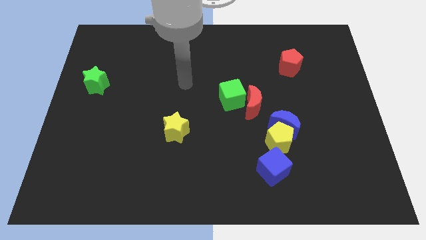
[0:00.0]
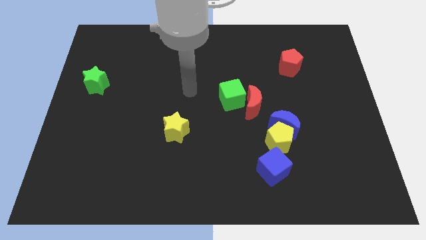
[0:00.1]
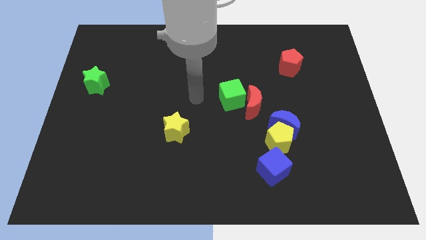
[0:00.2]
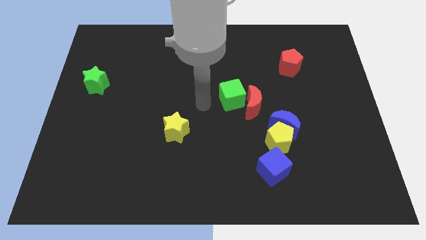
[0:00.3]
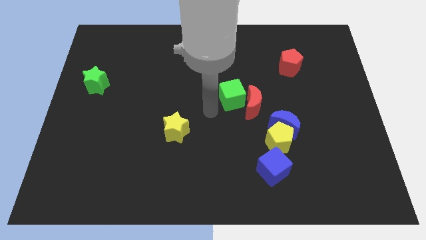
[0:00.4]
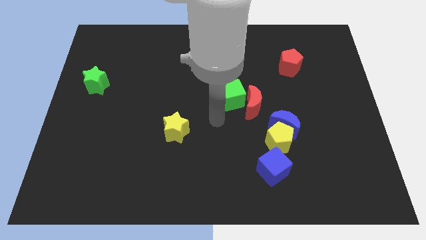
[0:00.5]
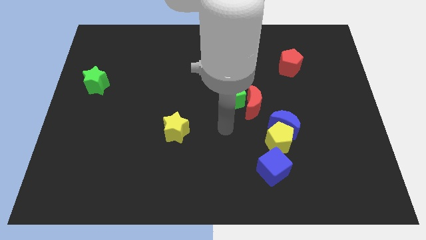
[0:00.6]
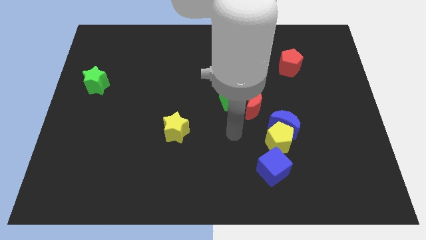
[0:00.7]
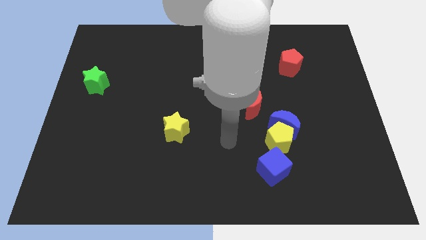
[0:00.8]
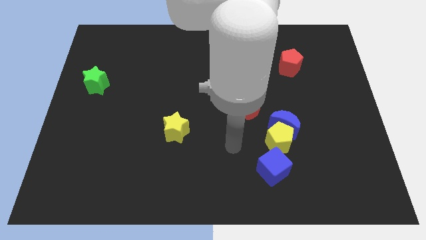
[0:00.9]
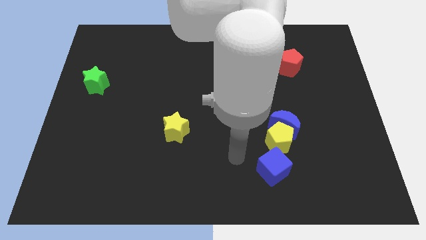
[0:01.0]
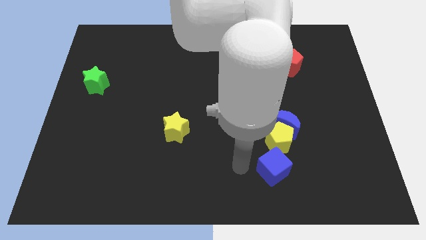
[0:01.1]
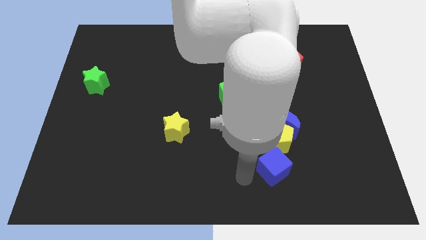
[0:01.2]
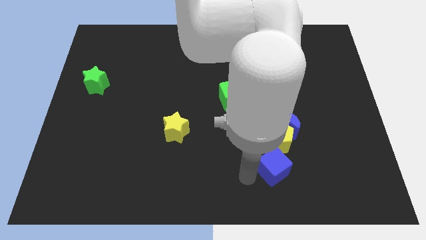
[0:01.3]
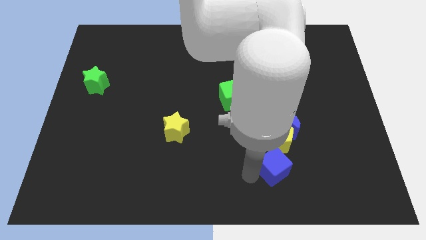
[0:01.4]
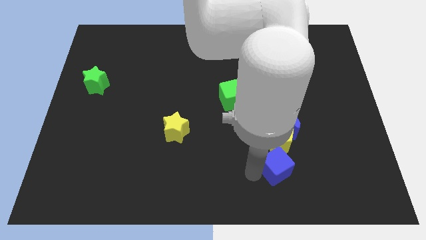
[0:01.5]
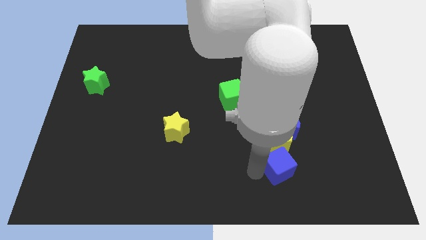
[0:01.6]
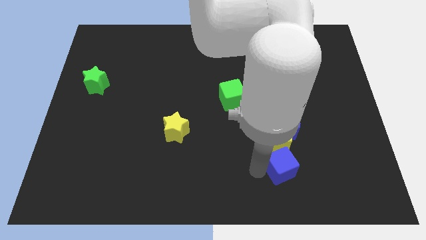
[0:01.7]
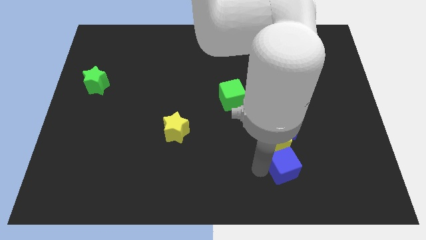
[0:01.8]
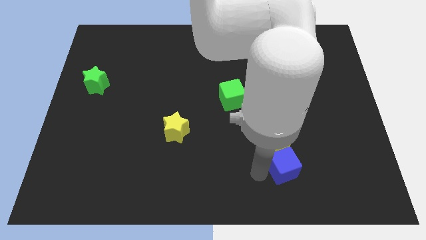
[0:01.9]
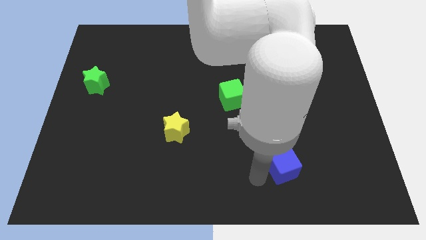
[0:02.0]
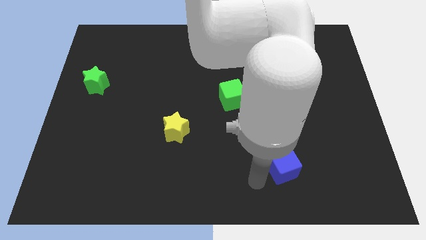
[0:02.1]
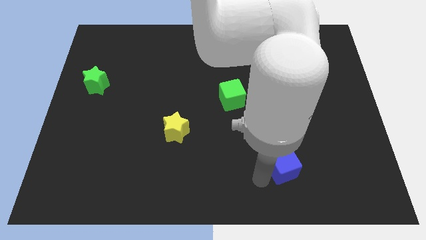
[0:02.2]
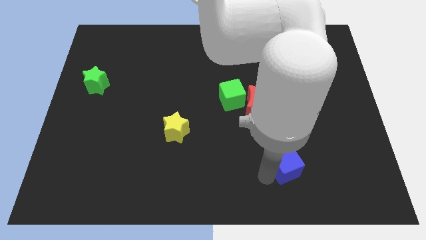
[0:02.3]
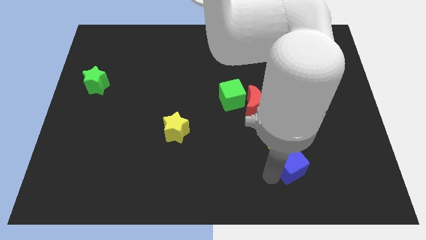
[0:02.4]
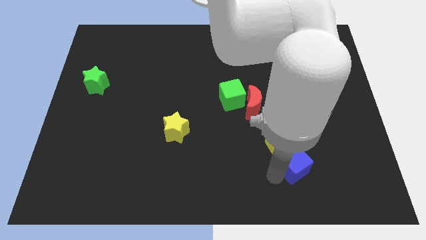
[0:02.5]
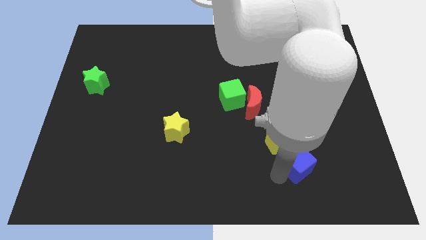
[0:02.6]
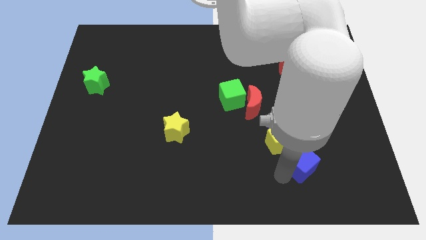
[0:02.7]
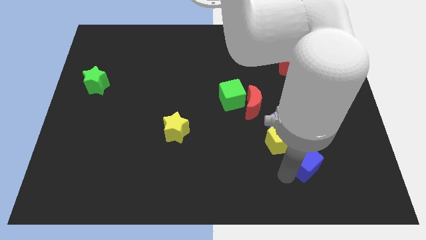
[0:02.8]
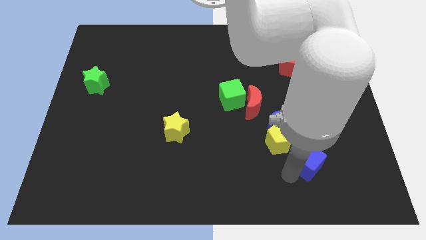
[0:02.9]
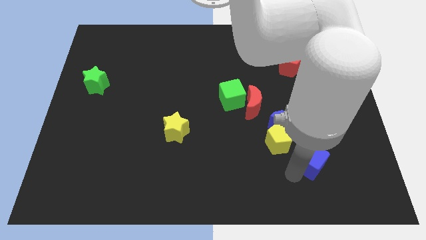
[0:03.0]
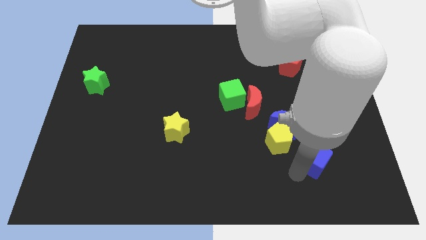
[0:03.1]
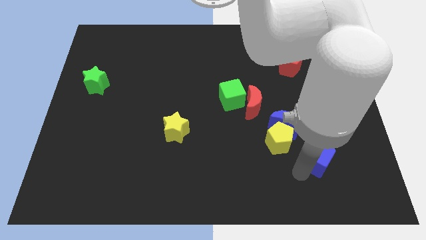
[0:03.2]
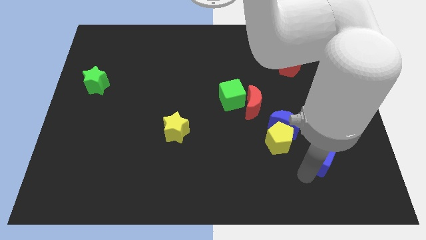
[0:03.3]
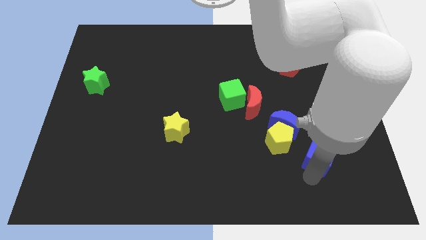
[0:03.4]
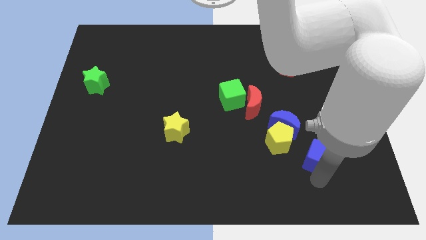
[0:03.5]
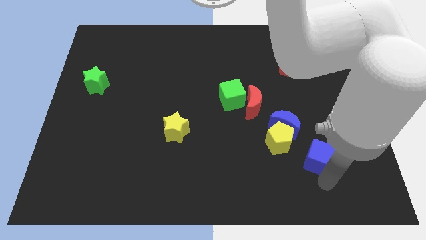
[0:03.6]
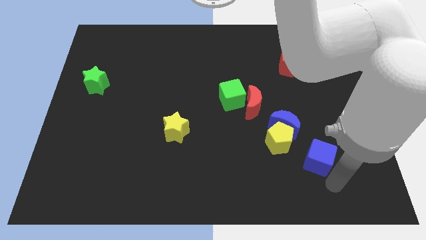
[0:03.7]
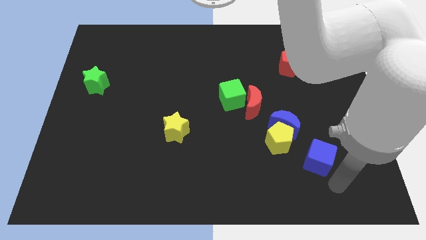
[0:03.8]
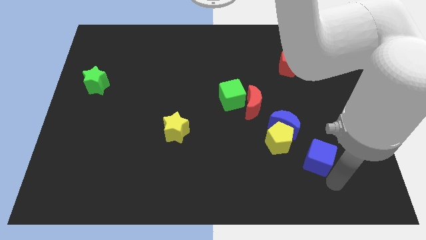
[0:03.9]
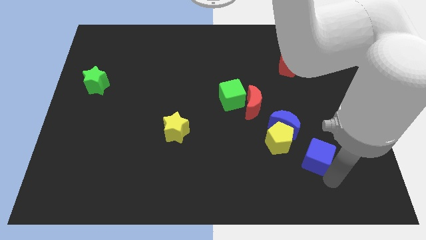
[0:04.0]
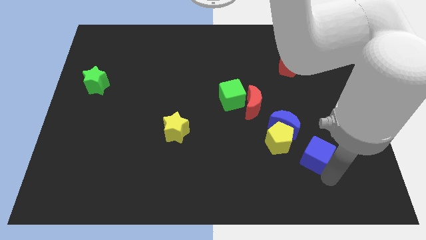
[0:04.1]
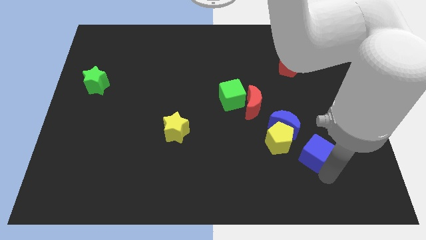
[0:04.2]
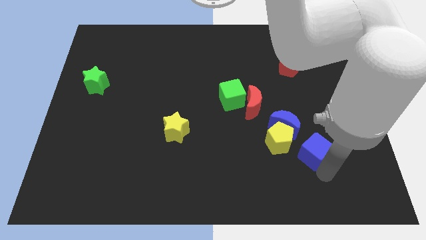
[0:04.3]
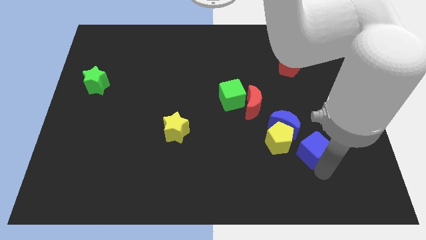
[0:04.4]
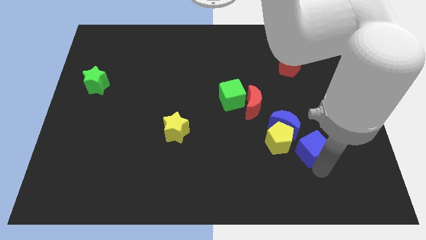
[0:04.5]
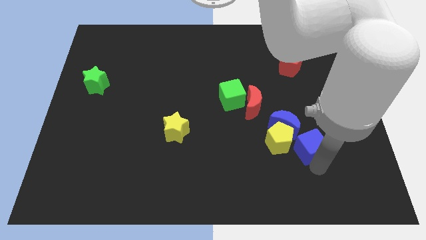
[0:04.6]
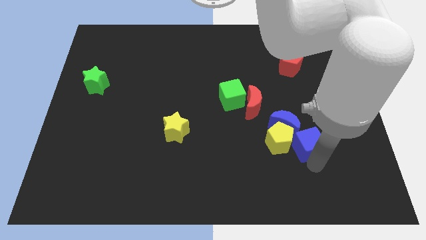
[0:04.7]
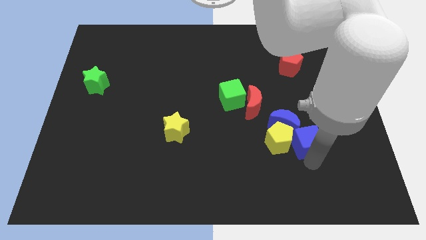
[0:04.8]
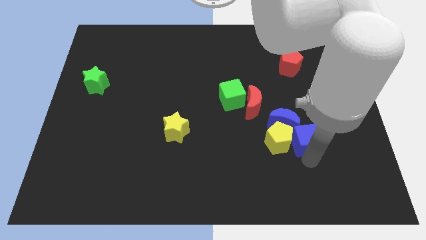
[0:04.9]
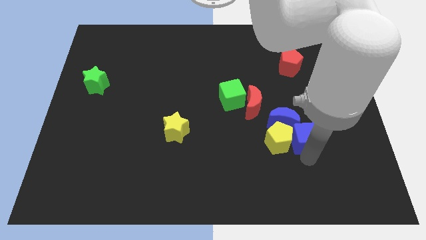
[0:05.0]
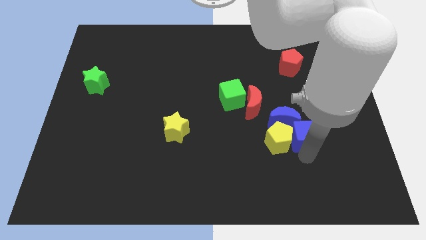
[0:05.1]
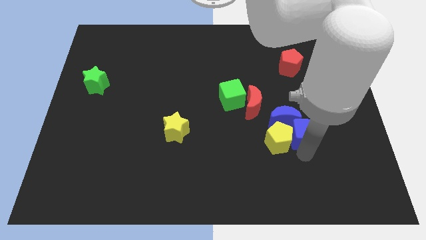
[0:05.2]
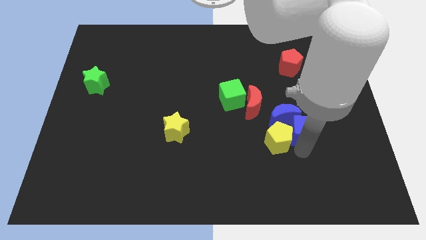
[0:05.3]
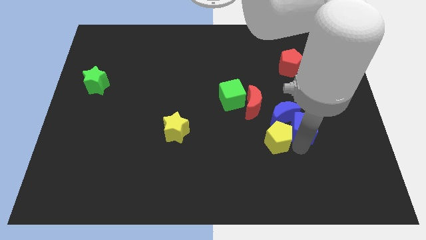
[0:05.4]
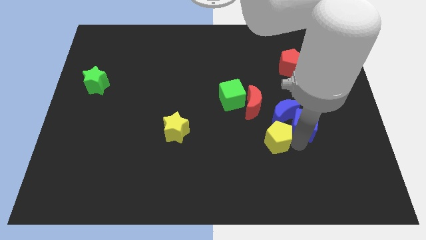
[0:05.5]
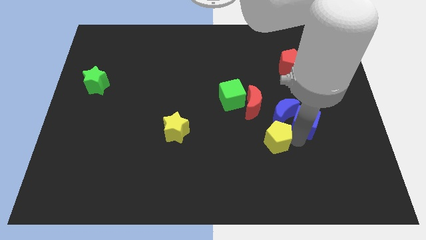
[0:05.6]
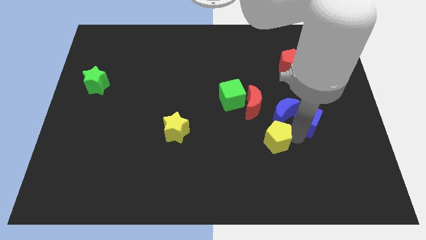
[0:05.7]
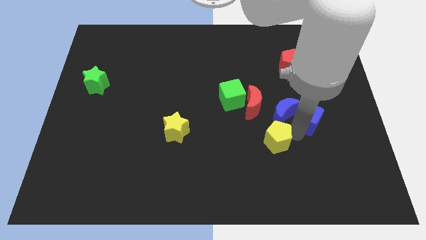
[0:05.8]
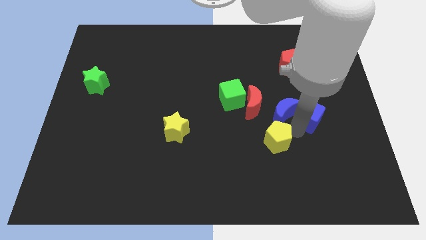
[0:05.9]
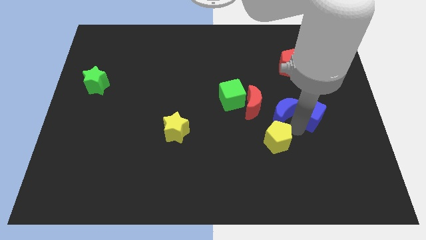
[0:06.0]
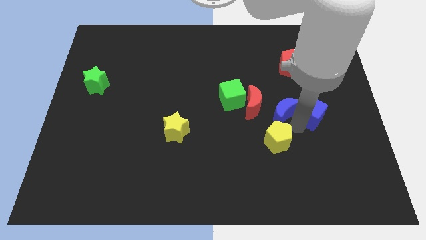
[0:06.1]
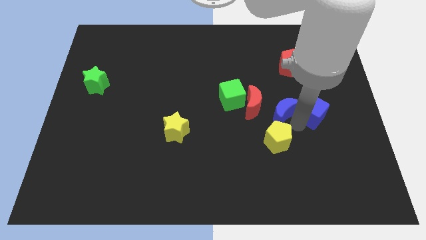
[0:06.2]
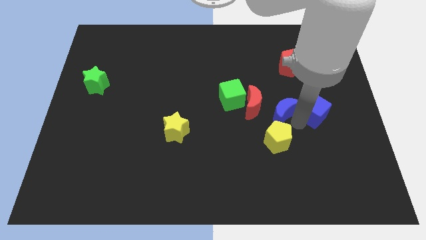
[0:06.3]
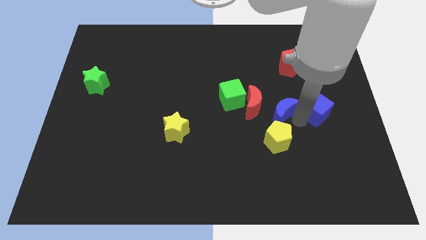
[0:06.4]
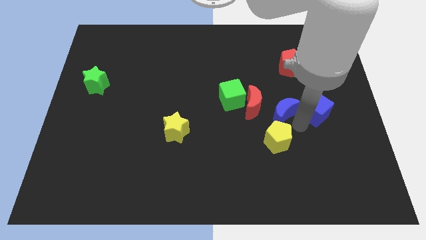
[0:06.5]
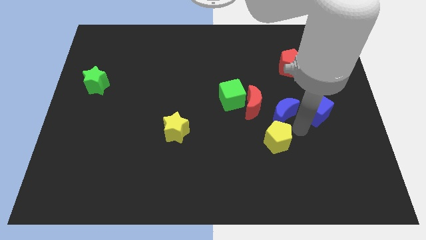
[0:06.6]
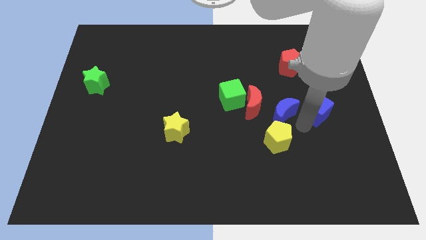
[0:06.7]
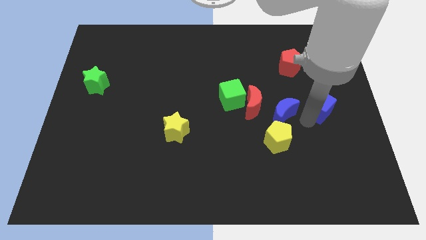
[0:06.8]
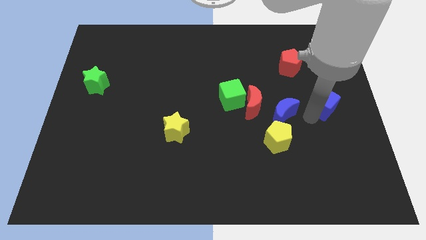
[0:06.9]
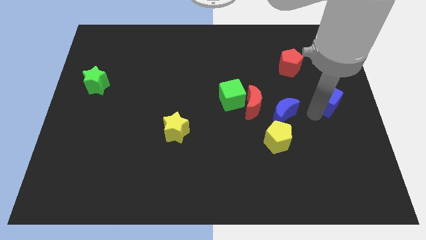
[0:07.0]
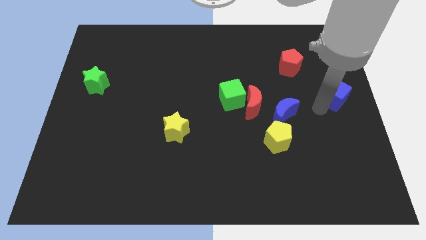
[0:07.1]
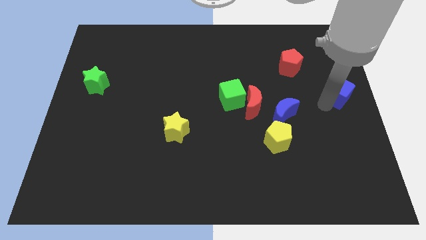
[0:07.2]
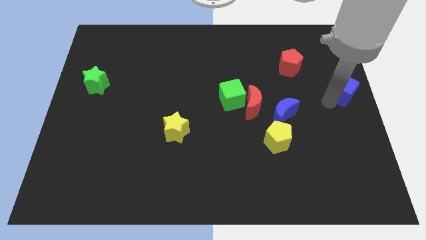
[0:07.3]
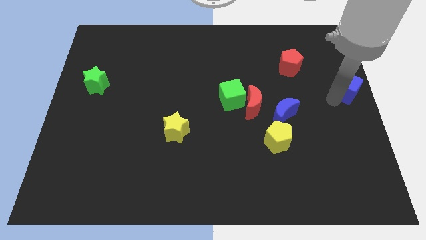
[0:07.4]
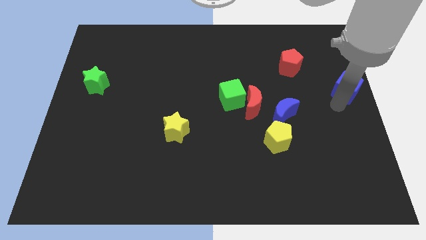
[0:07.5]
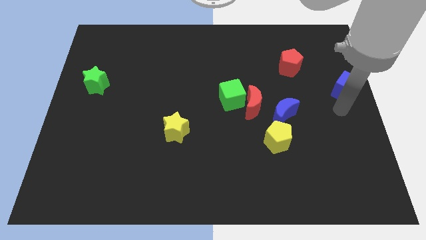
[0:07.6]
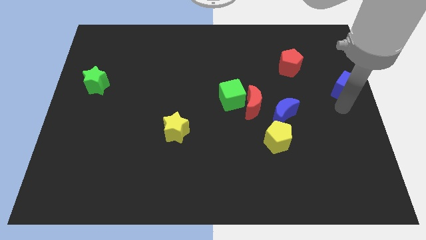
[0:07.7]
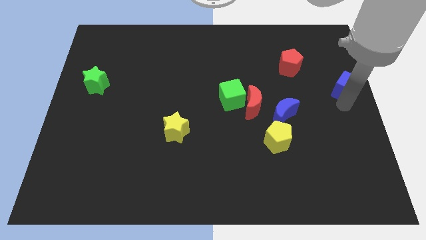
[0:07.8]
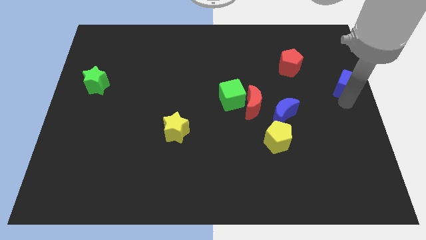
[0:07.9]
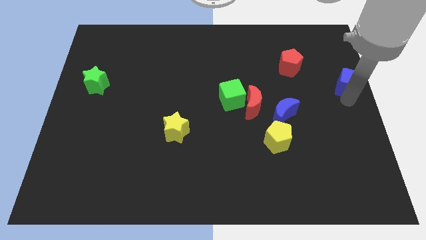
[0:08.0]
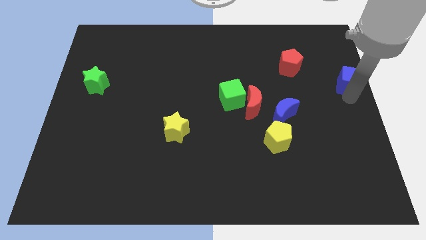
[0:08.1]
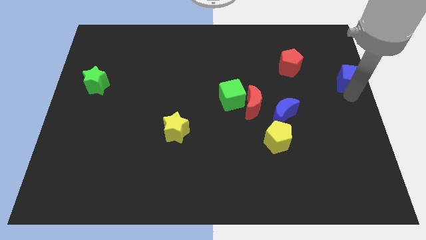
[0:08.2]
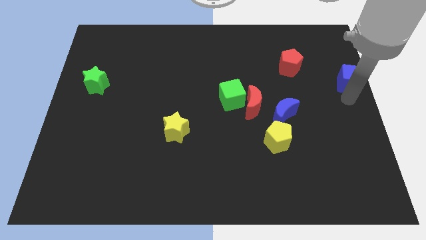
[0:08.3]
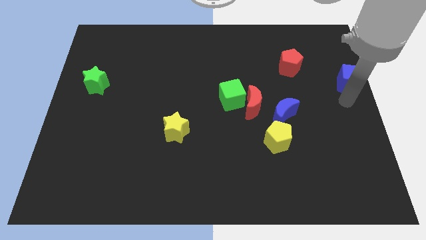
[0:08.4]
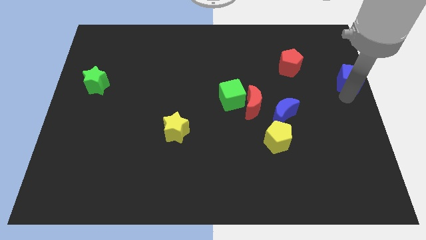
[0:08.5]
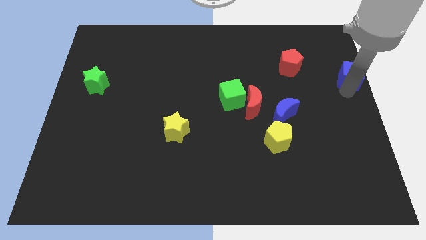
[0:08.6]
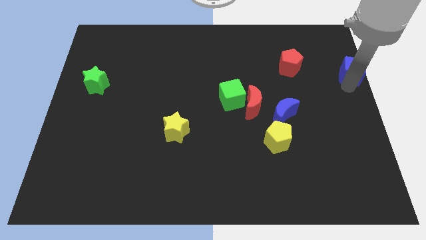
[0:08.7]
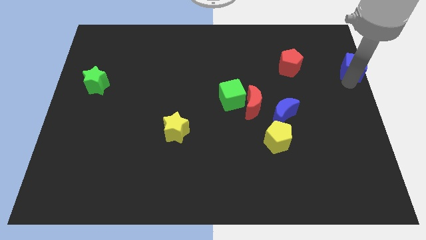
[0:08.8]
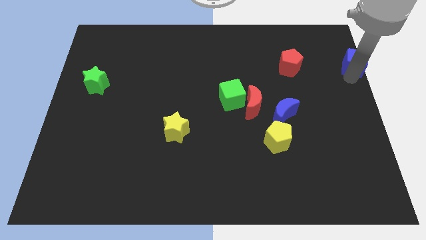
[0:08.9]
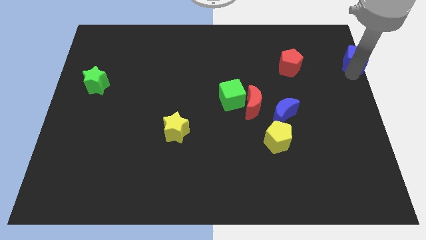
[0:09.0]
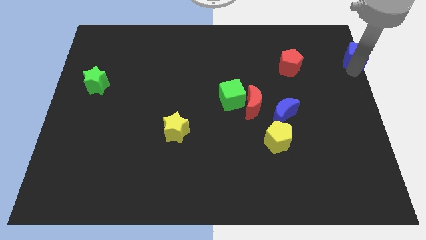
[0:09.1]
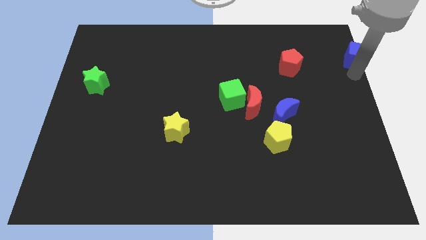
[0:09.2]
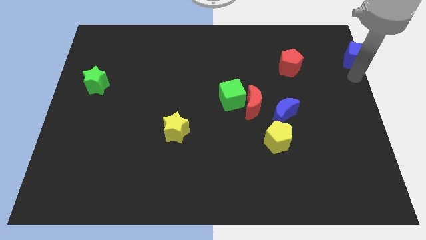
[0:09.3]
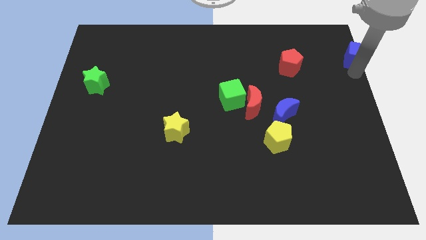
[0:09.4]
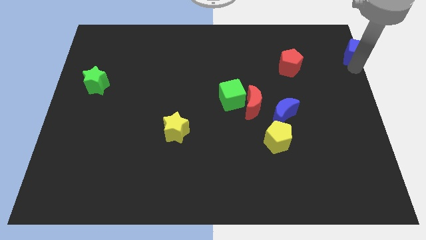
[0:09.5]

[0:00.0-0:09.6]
put the blue cube to the top right
